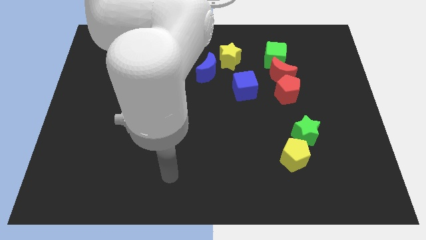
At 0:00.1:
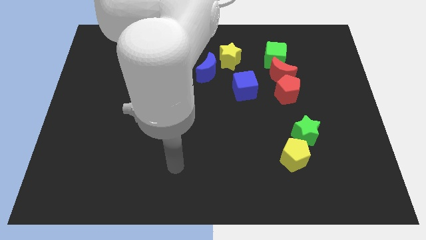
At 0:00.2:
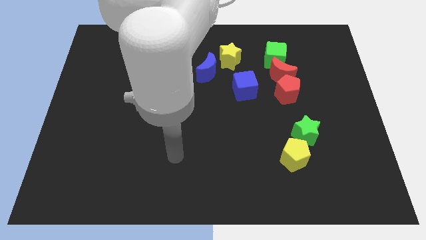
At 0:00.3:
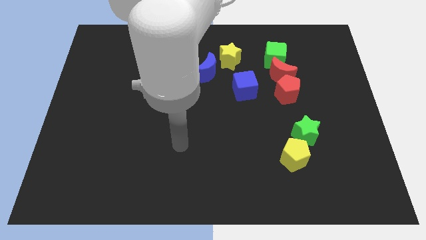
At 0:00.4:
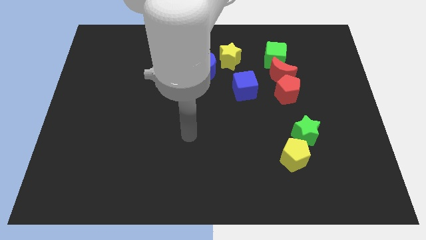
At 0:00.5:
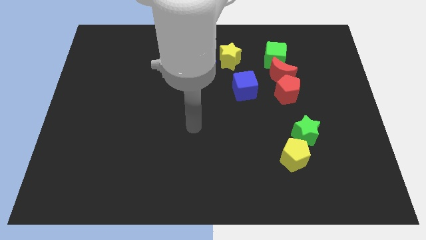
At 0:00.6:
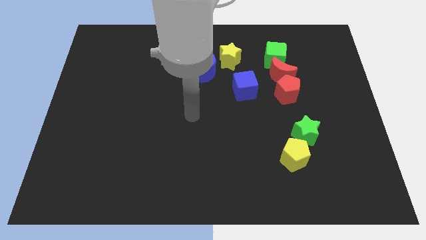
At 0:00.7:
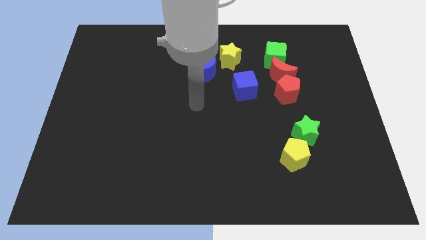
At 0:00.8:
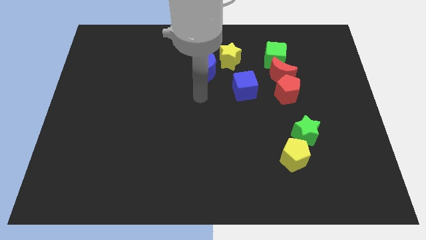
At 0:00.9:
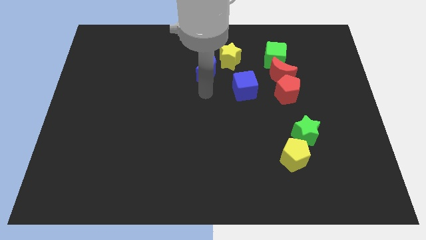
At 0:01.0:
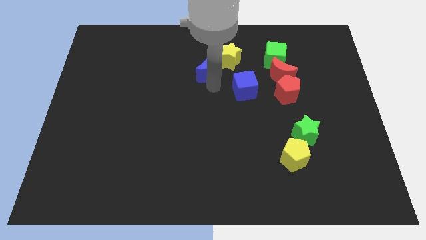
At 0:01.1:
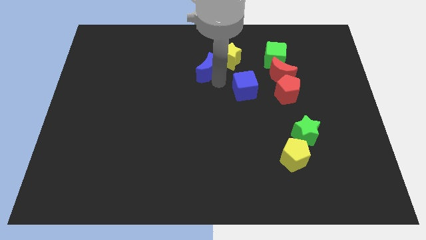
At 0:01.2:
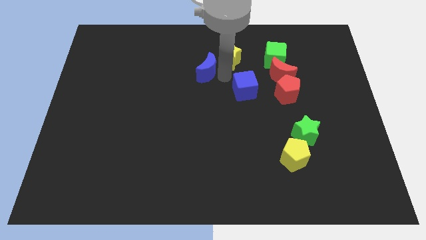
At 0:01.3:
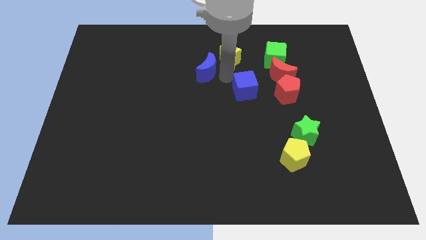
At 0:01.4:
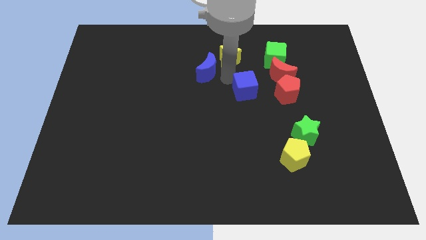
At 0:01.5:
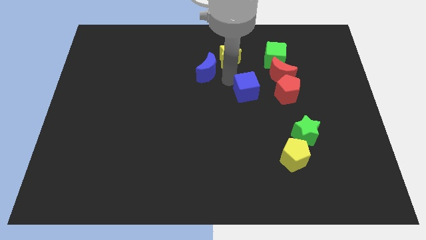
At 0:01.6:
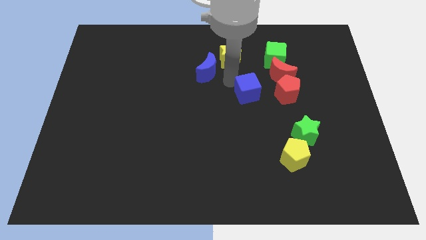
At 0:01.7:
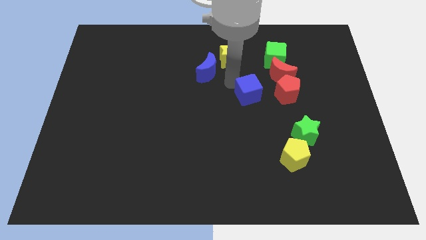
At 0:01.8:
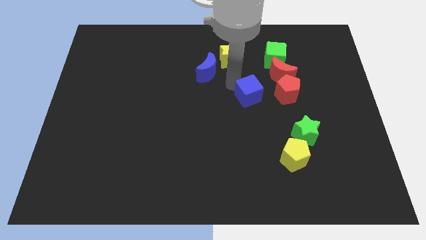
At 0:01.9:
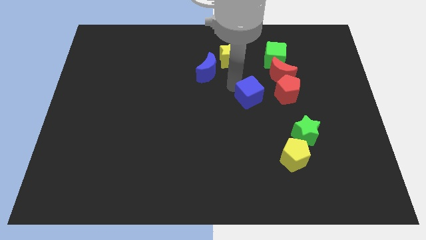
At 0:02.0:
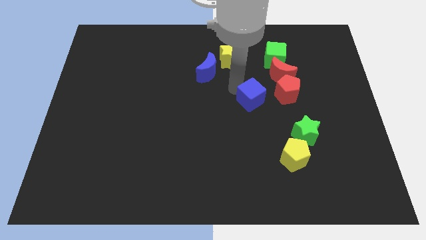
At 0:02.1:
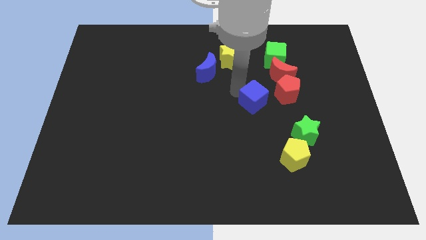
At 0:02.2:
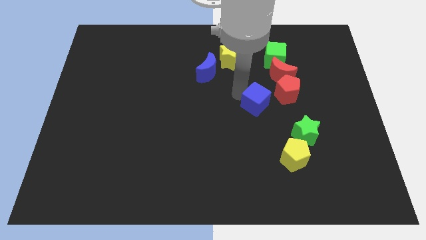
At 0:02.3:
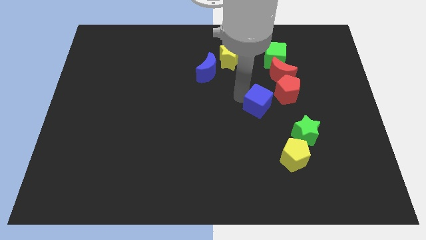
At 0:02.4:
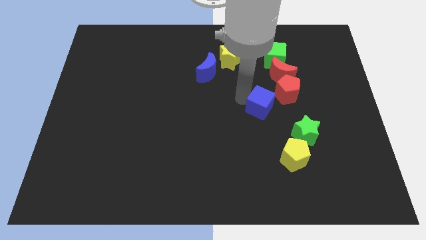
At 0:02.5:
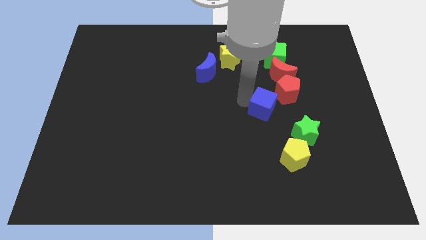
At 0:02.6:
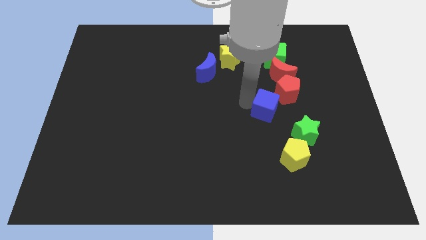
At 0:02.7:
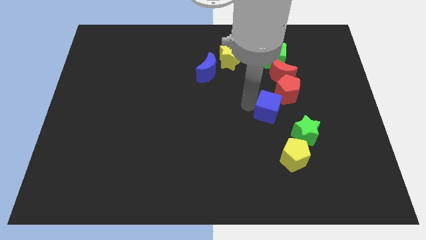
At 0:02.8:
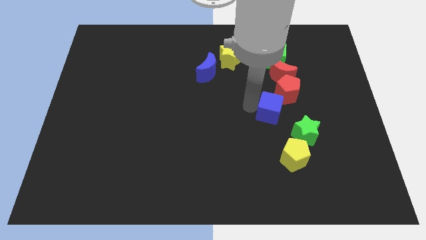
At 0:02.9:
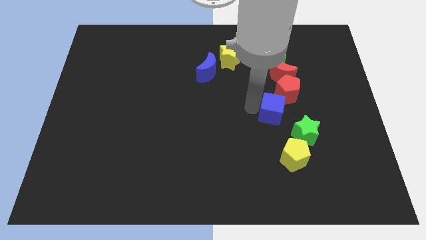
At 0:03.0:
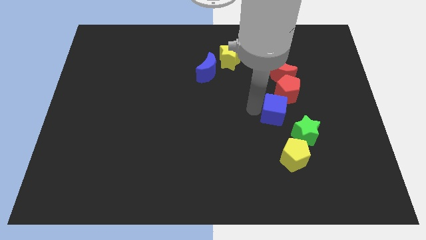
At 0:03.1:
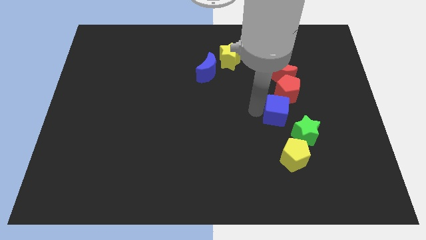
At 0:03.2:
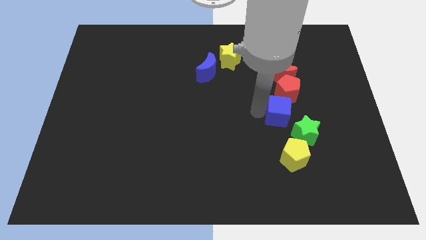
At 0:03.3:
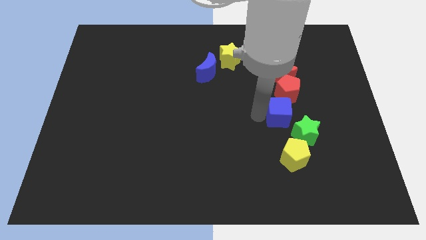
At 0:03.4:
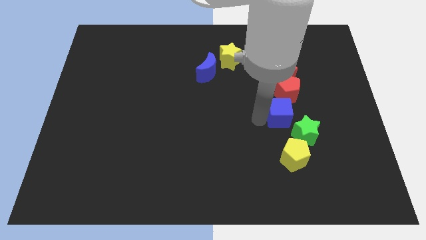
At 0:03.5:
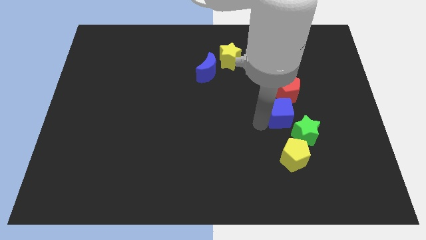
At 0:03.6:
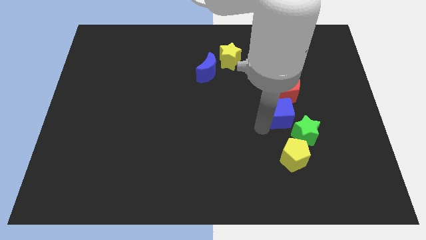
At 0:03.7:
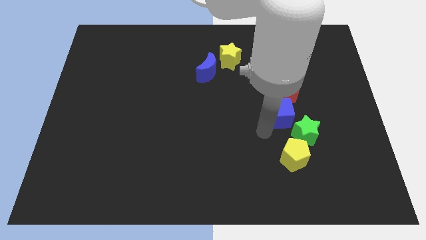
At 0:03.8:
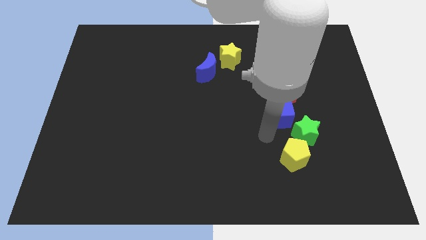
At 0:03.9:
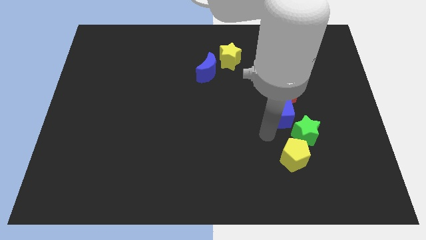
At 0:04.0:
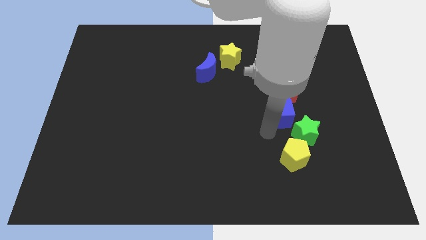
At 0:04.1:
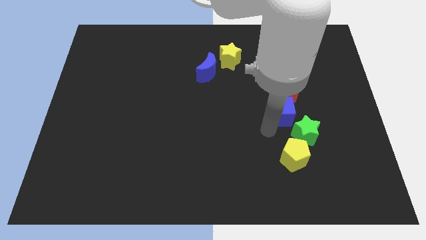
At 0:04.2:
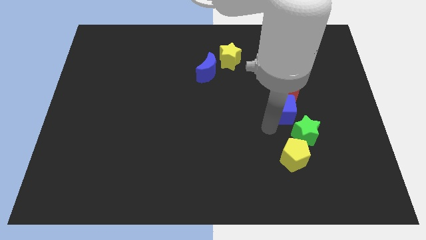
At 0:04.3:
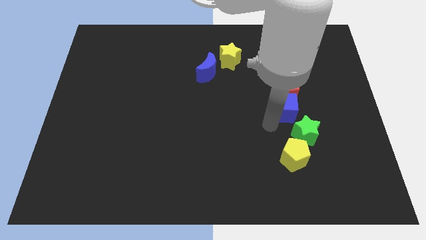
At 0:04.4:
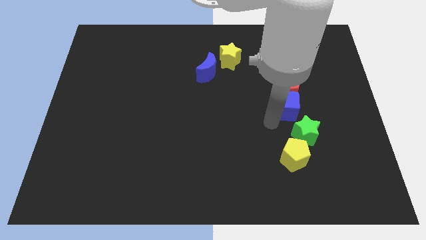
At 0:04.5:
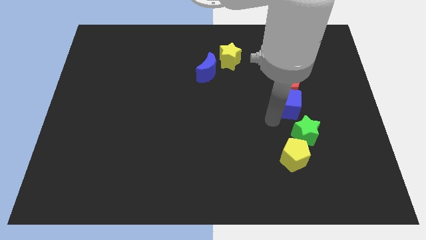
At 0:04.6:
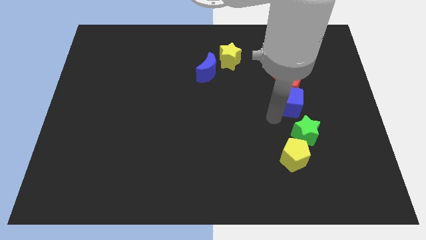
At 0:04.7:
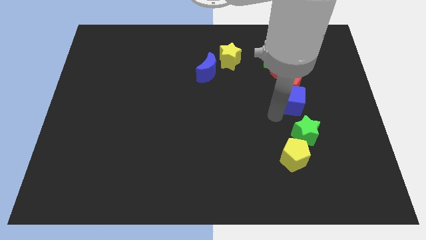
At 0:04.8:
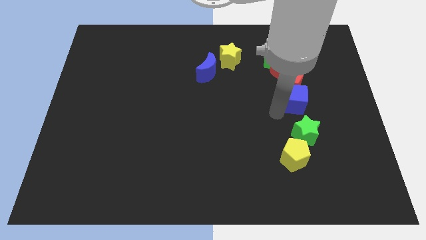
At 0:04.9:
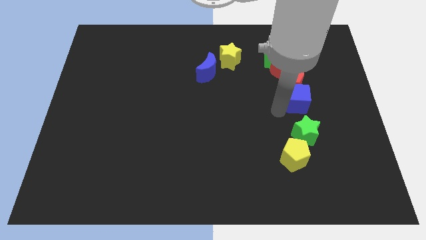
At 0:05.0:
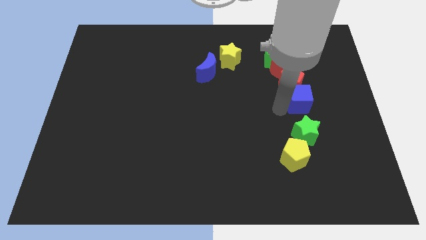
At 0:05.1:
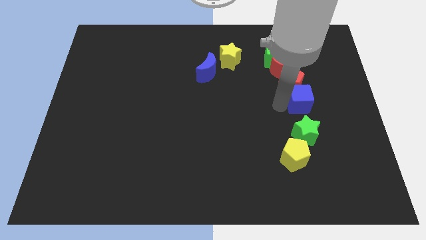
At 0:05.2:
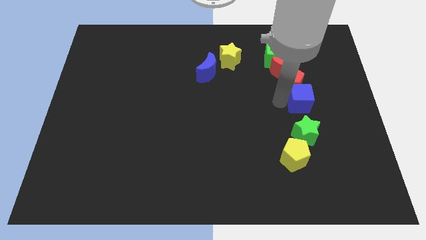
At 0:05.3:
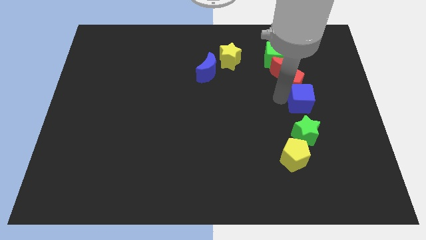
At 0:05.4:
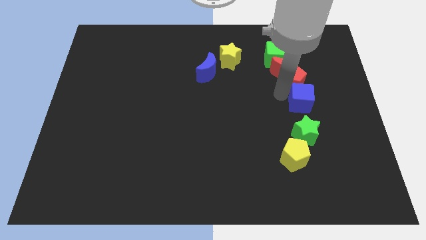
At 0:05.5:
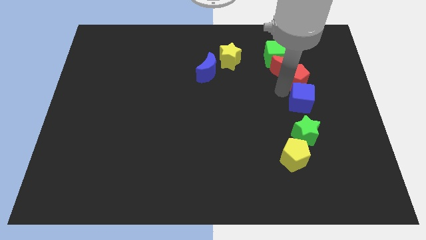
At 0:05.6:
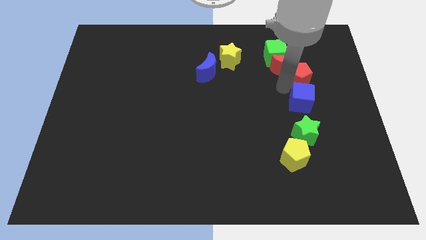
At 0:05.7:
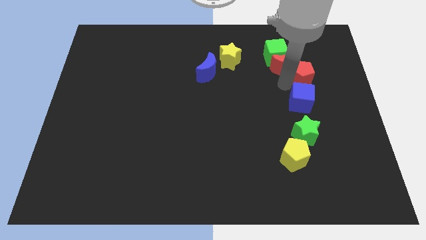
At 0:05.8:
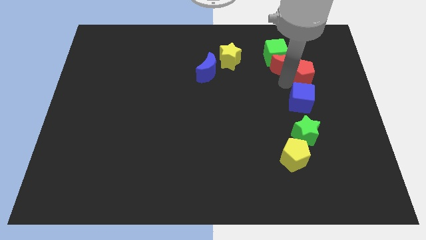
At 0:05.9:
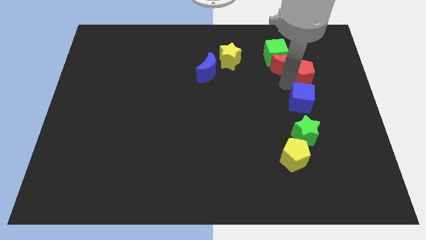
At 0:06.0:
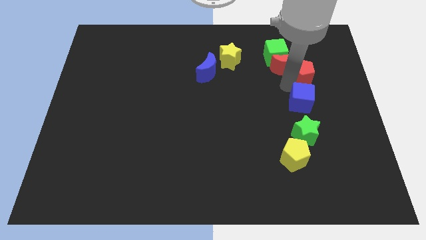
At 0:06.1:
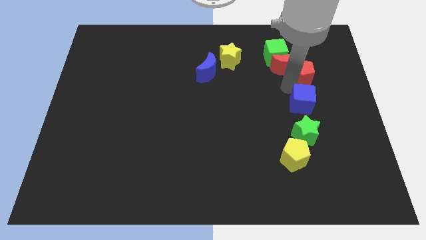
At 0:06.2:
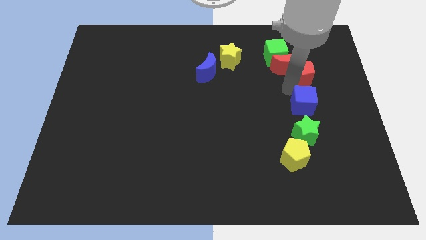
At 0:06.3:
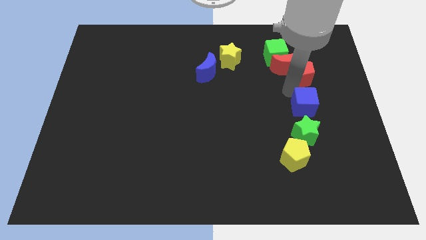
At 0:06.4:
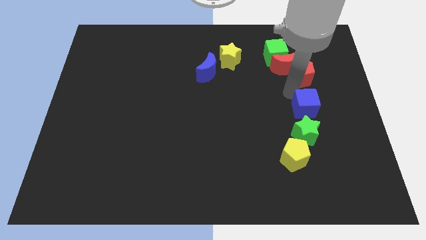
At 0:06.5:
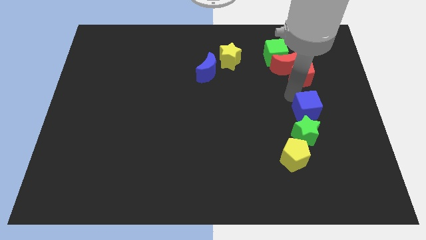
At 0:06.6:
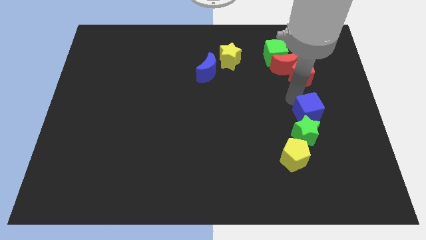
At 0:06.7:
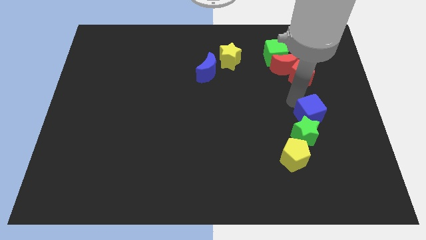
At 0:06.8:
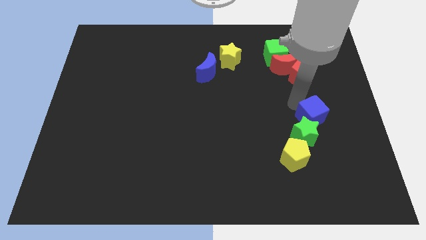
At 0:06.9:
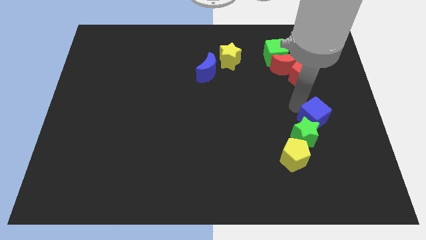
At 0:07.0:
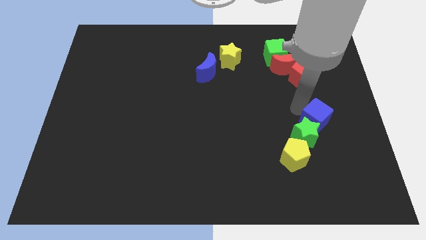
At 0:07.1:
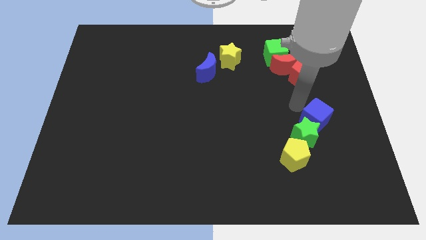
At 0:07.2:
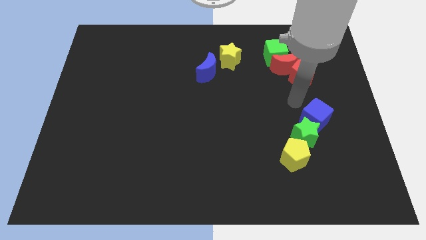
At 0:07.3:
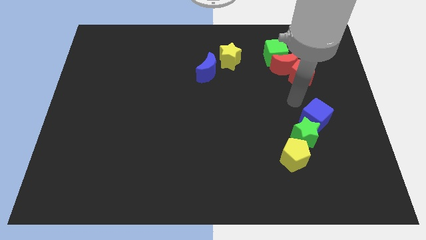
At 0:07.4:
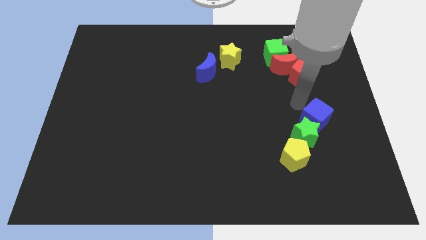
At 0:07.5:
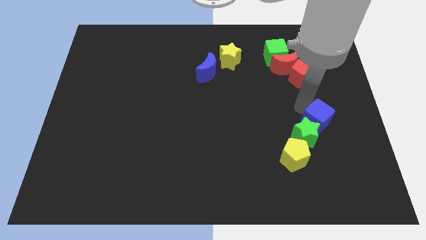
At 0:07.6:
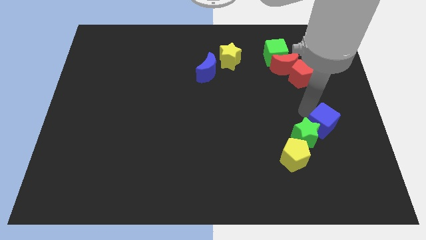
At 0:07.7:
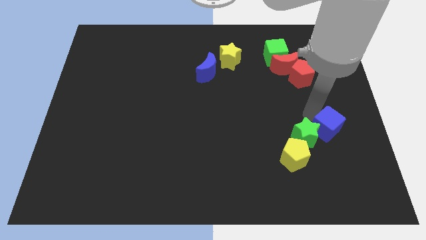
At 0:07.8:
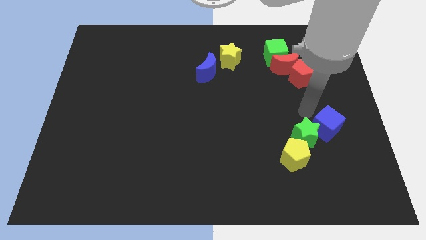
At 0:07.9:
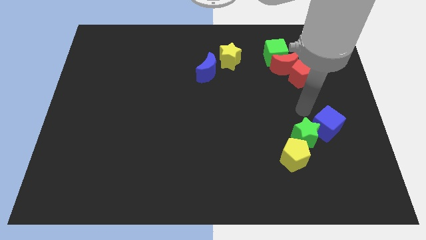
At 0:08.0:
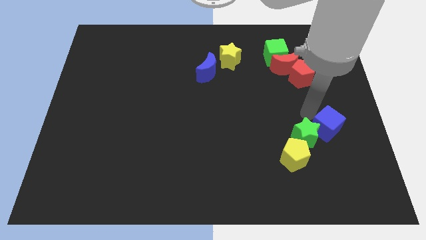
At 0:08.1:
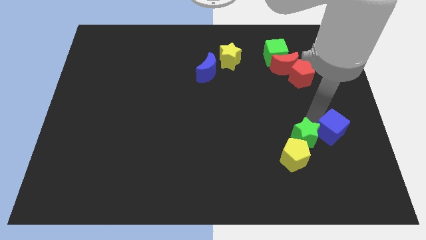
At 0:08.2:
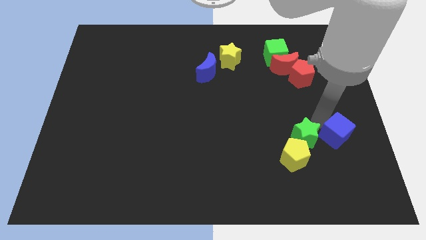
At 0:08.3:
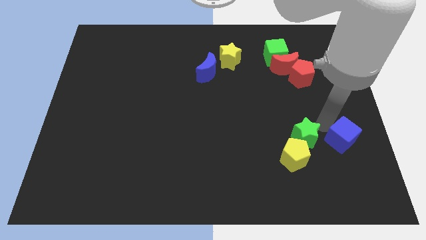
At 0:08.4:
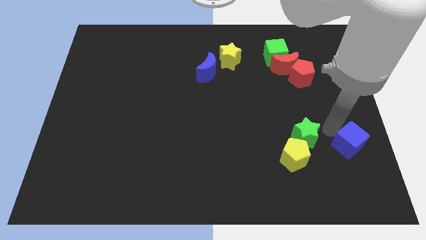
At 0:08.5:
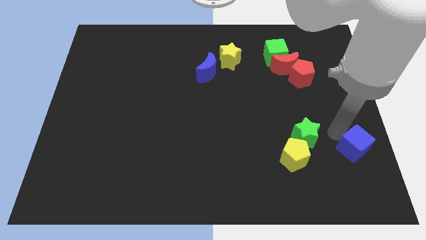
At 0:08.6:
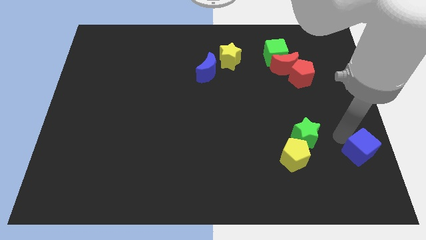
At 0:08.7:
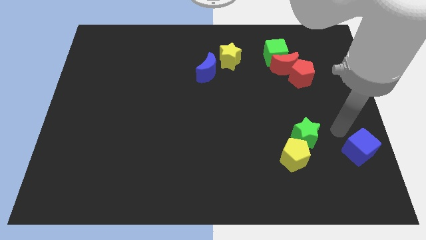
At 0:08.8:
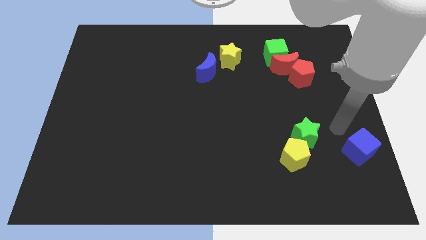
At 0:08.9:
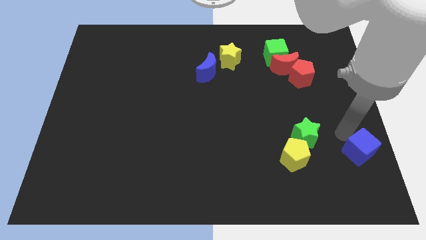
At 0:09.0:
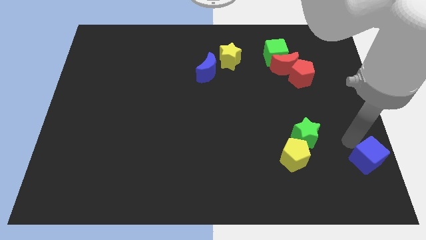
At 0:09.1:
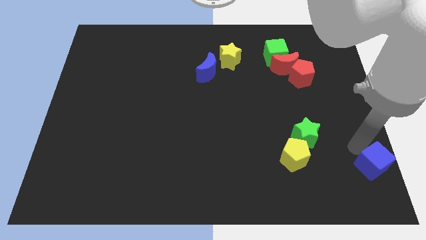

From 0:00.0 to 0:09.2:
slide the blue cube to the bottom right
